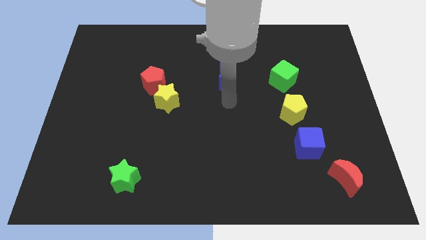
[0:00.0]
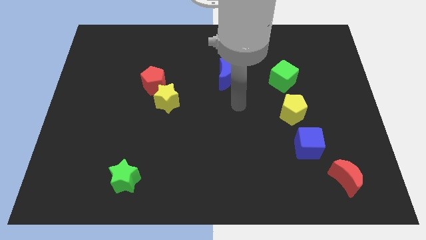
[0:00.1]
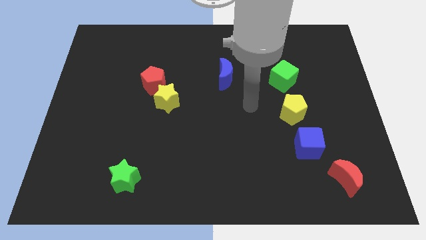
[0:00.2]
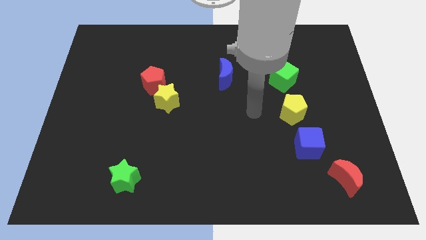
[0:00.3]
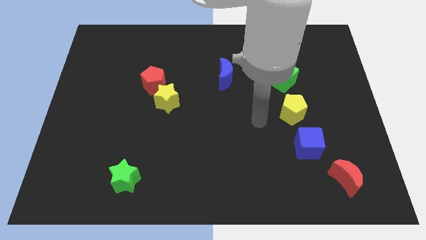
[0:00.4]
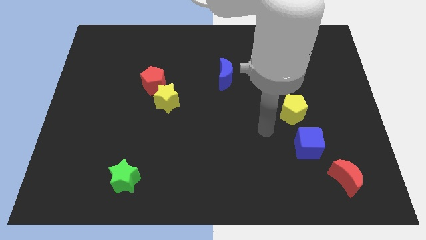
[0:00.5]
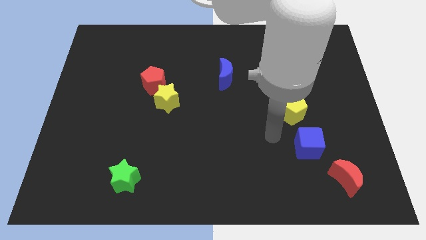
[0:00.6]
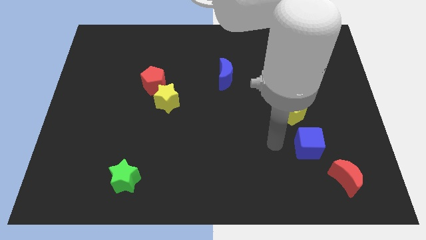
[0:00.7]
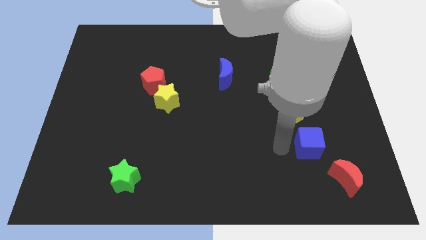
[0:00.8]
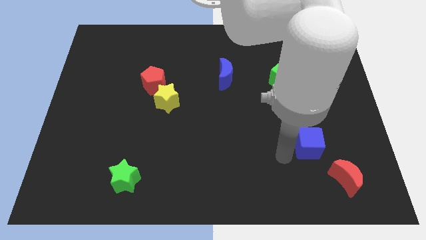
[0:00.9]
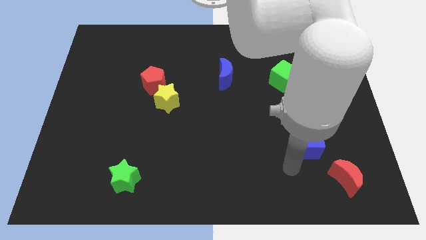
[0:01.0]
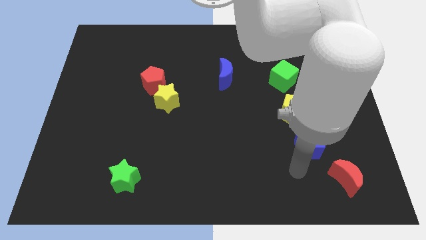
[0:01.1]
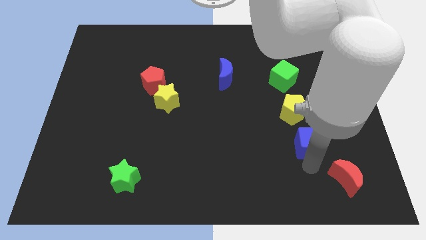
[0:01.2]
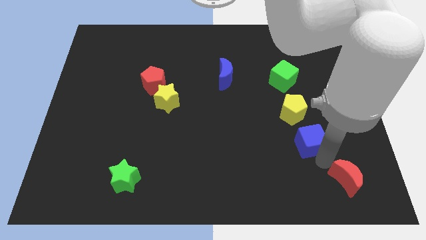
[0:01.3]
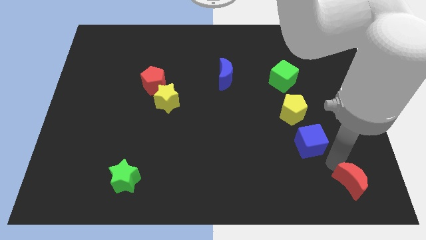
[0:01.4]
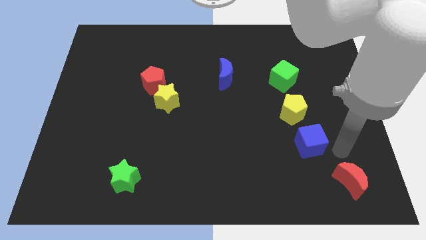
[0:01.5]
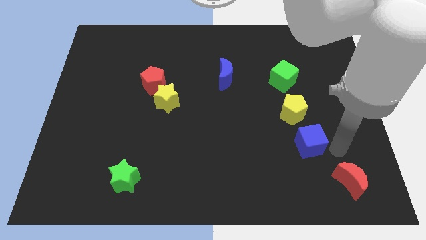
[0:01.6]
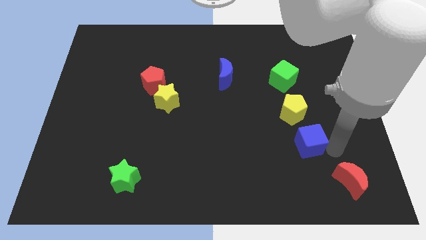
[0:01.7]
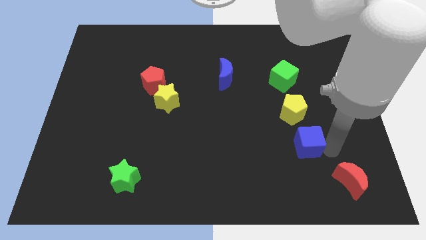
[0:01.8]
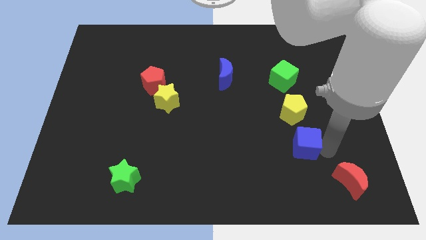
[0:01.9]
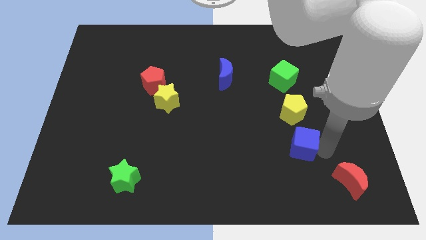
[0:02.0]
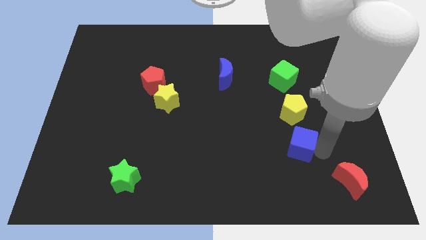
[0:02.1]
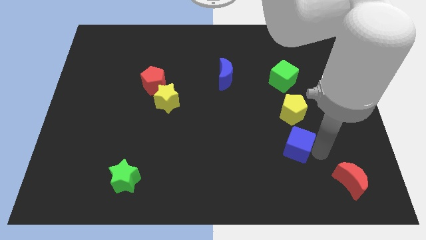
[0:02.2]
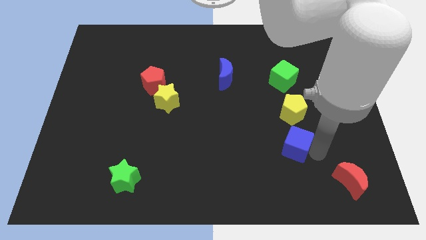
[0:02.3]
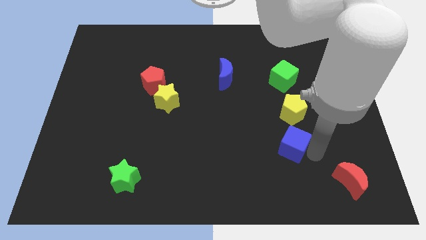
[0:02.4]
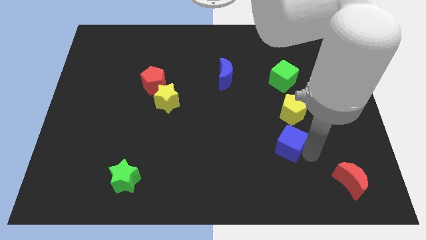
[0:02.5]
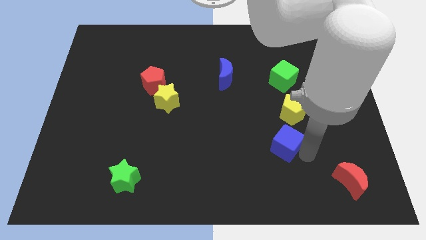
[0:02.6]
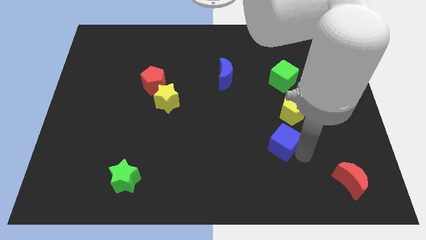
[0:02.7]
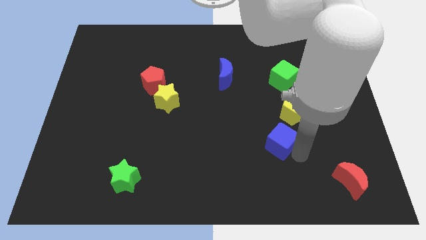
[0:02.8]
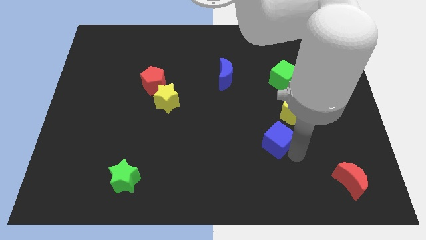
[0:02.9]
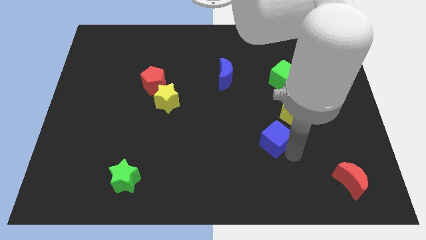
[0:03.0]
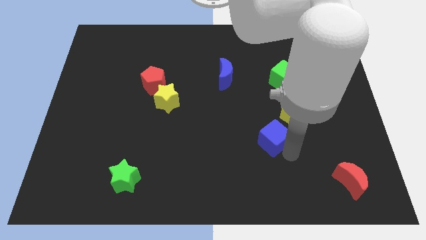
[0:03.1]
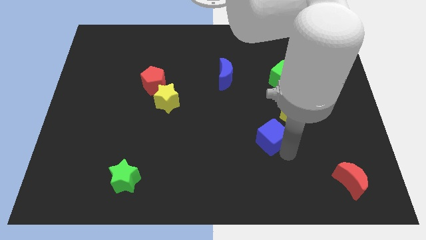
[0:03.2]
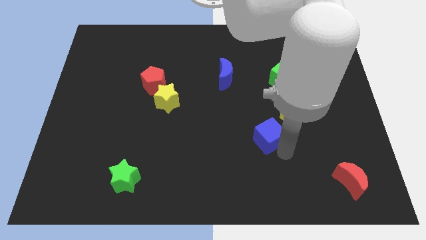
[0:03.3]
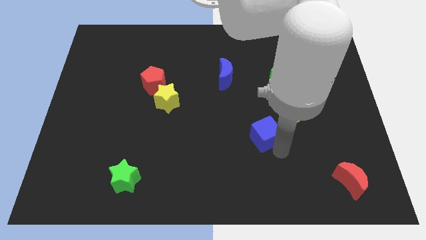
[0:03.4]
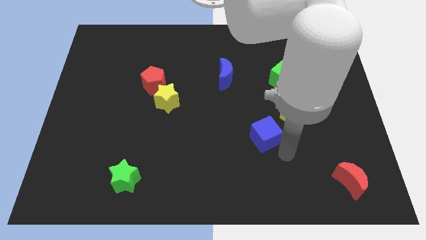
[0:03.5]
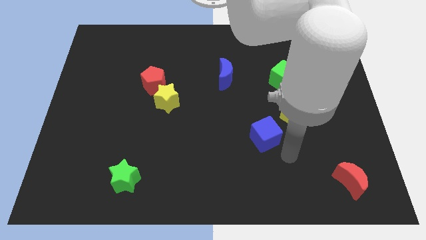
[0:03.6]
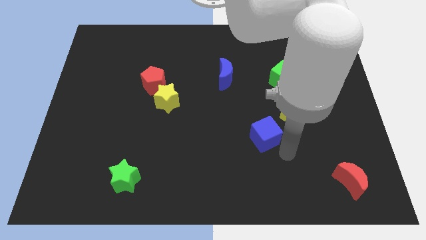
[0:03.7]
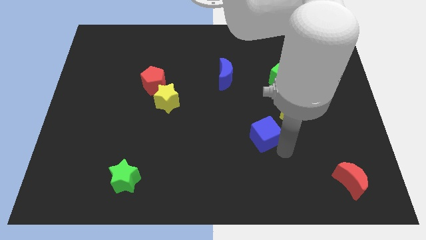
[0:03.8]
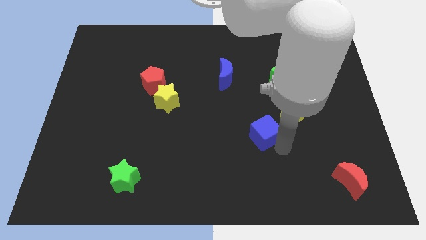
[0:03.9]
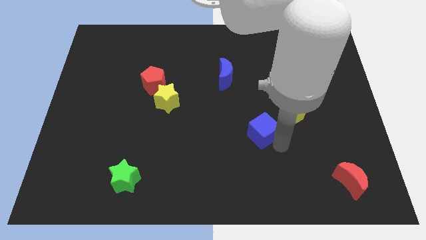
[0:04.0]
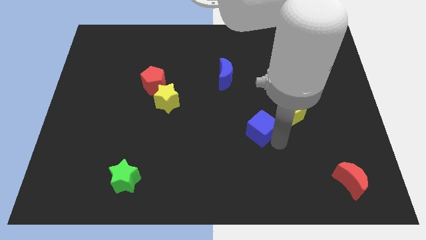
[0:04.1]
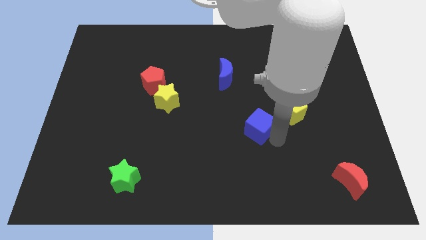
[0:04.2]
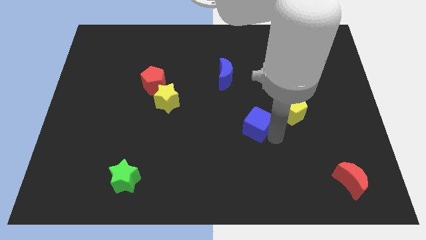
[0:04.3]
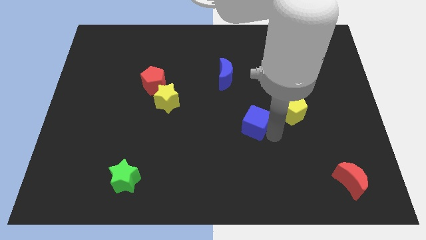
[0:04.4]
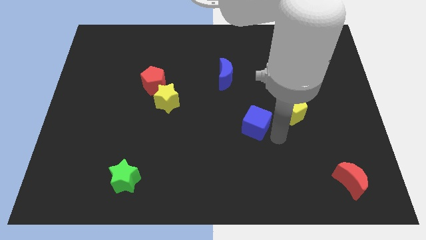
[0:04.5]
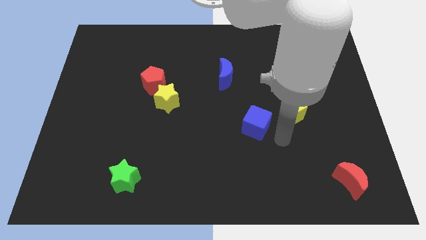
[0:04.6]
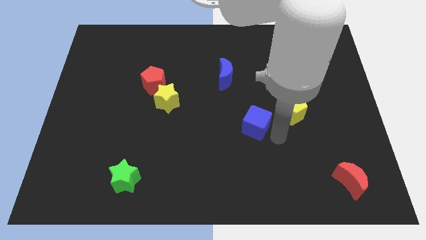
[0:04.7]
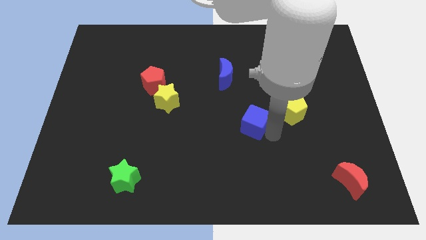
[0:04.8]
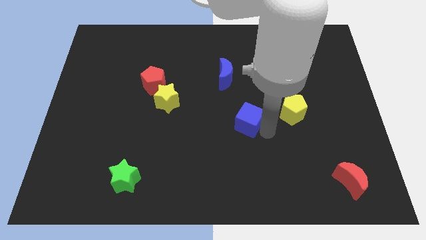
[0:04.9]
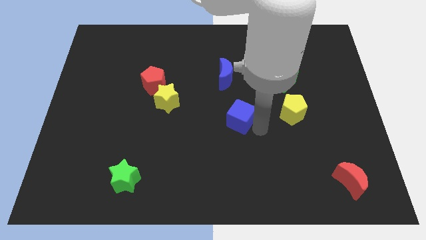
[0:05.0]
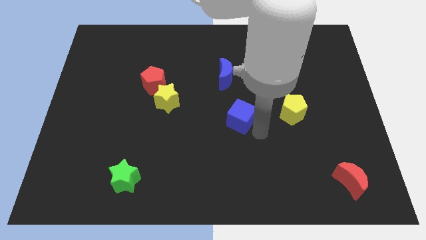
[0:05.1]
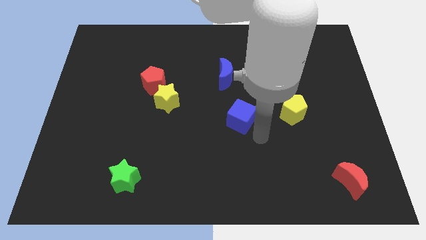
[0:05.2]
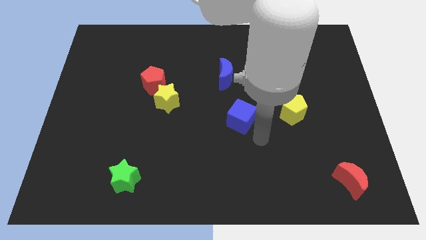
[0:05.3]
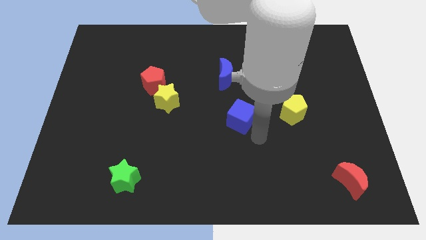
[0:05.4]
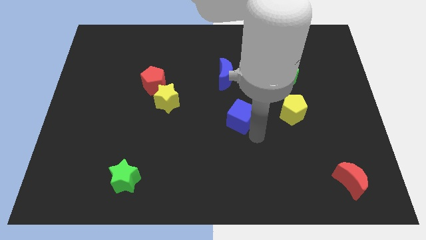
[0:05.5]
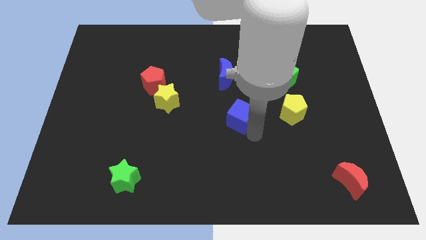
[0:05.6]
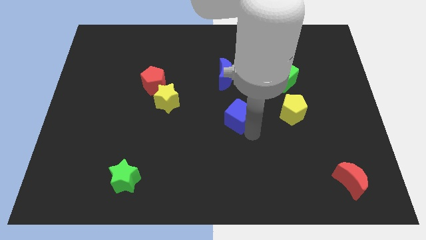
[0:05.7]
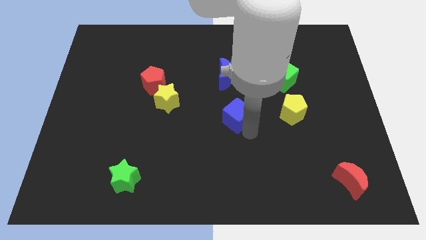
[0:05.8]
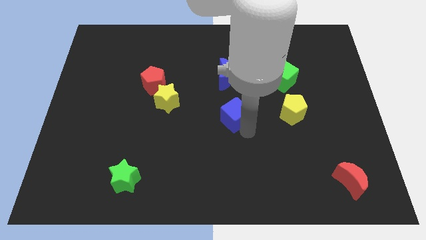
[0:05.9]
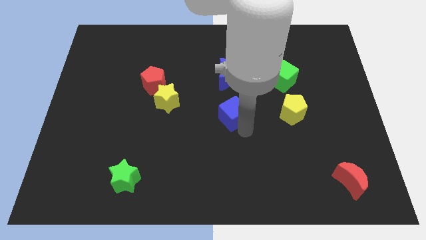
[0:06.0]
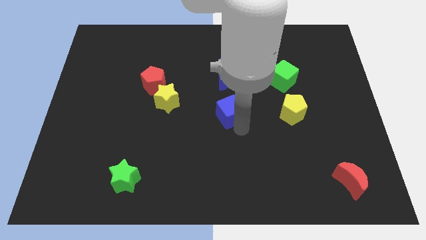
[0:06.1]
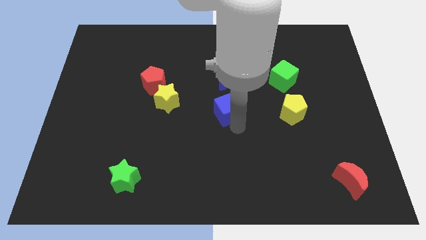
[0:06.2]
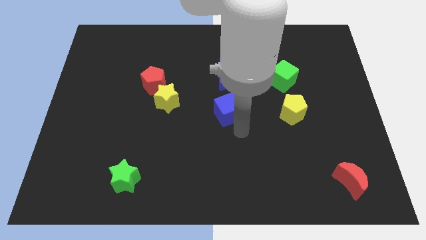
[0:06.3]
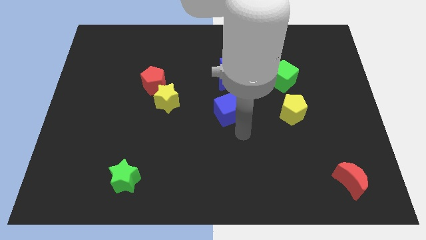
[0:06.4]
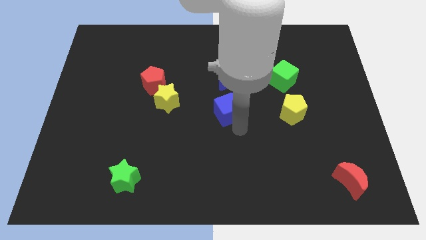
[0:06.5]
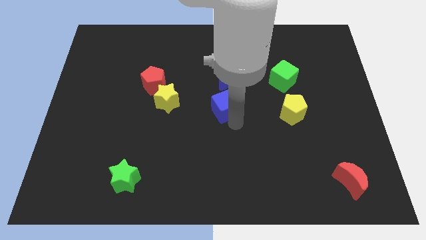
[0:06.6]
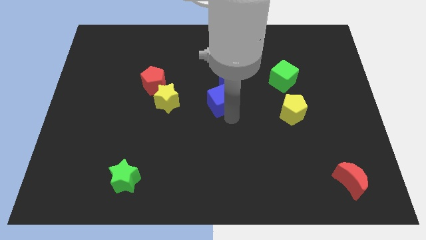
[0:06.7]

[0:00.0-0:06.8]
push the blue cube diagonally upwards and to the left

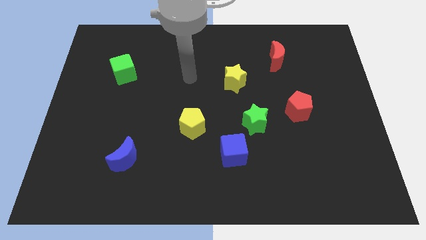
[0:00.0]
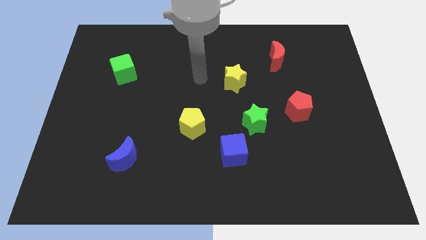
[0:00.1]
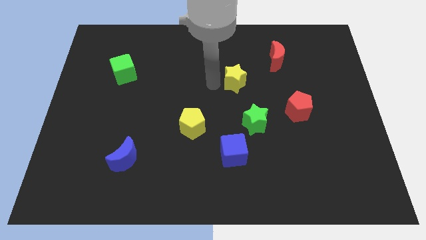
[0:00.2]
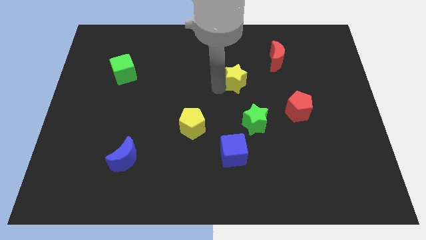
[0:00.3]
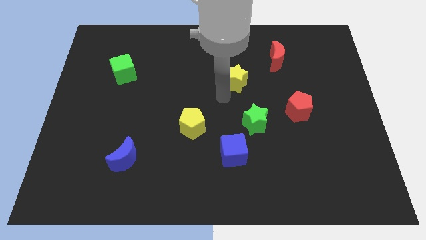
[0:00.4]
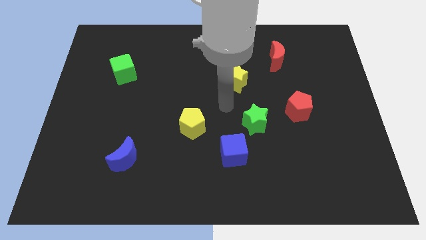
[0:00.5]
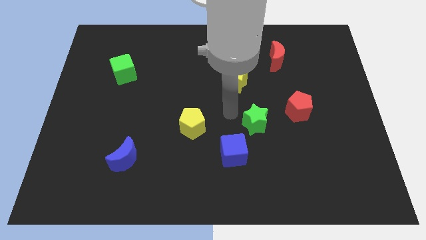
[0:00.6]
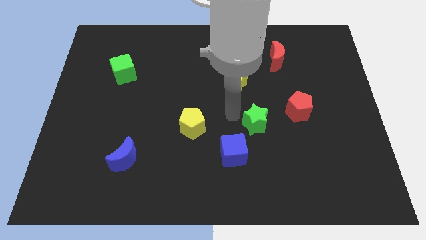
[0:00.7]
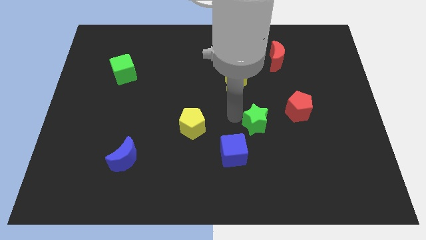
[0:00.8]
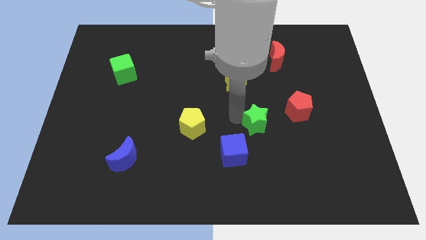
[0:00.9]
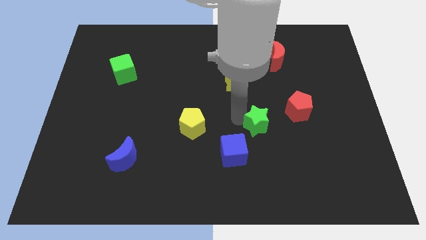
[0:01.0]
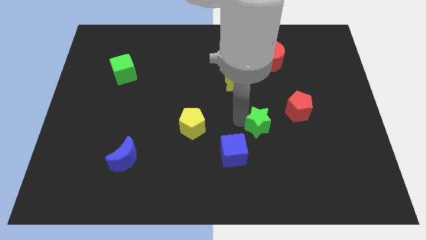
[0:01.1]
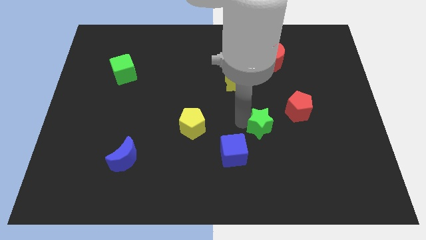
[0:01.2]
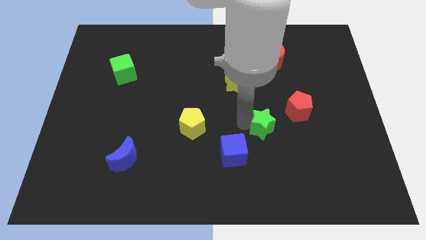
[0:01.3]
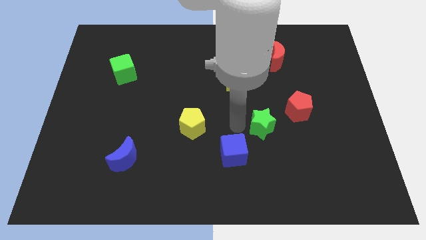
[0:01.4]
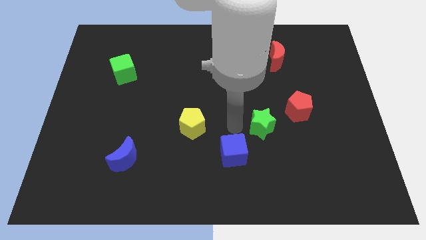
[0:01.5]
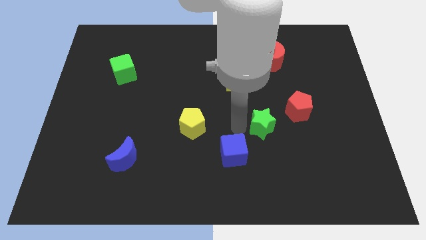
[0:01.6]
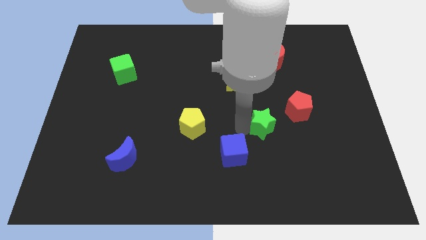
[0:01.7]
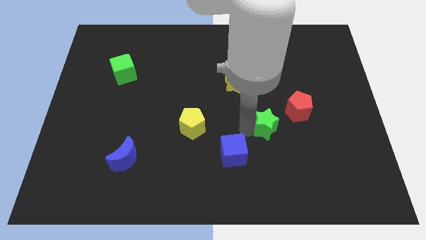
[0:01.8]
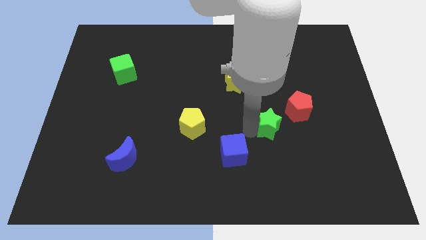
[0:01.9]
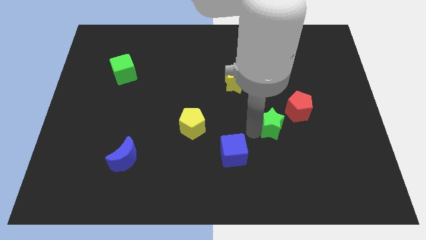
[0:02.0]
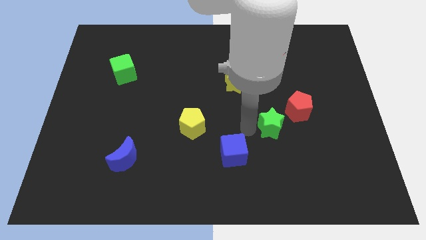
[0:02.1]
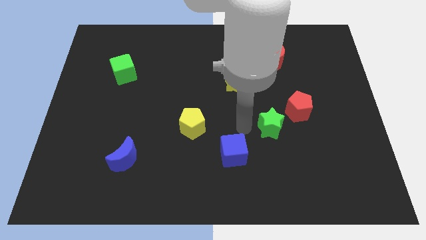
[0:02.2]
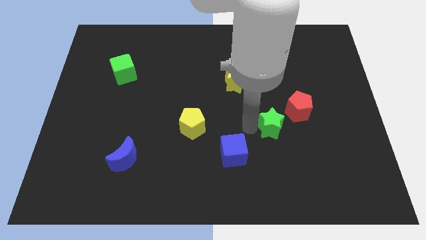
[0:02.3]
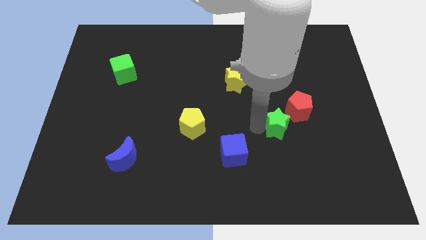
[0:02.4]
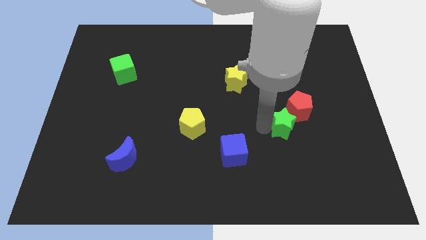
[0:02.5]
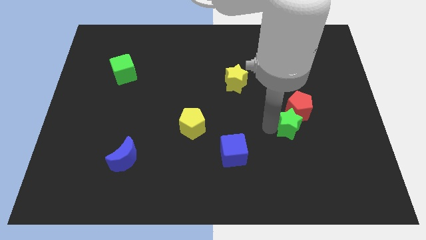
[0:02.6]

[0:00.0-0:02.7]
slide the green star somewhat to the right
